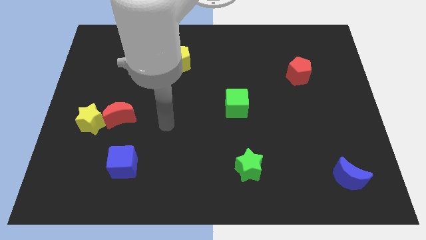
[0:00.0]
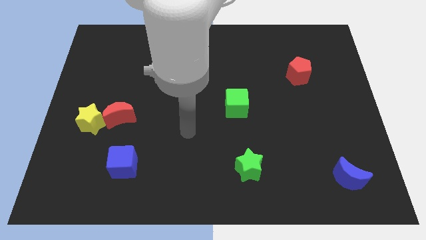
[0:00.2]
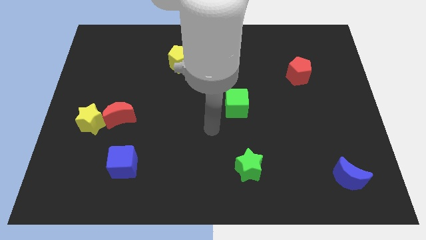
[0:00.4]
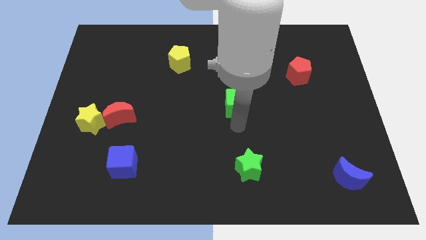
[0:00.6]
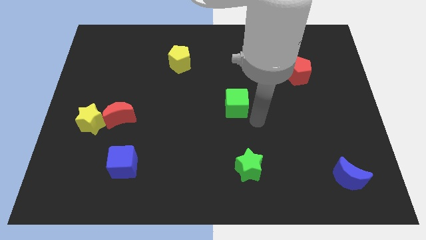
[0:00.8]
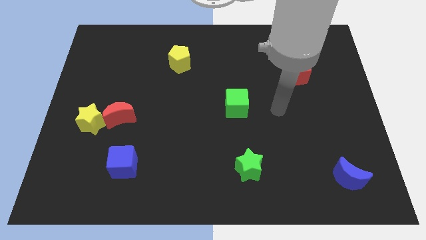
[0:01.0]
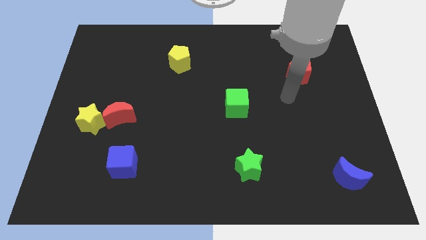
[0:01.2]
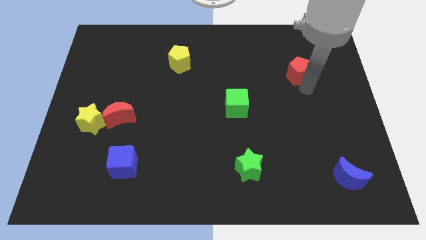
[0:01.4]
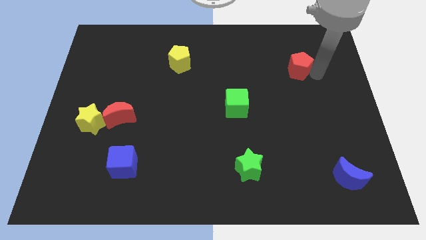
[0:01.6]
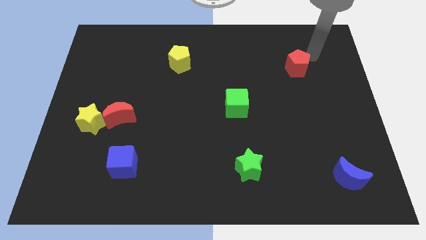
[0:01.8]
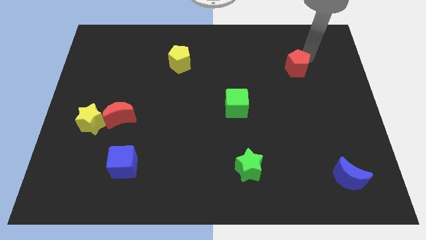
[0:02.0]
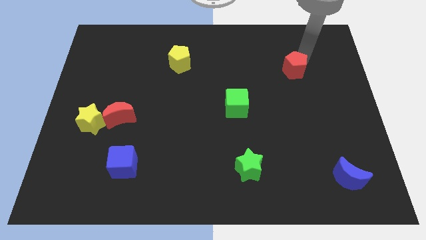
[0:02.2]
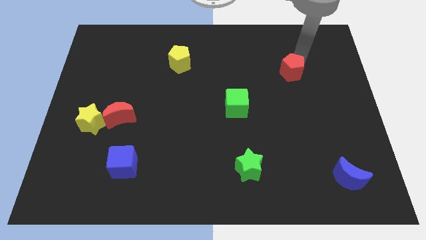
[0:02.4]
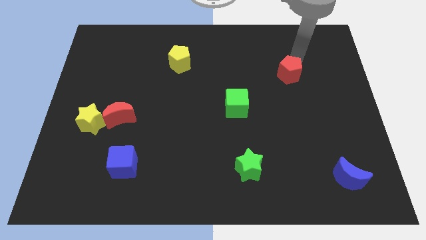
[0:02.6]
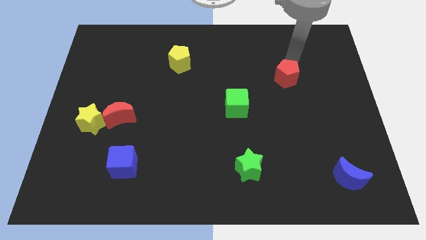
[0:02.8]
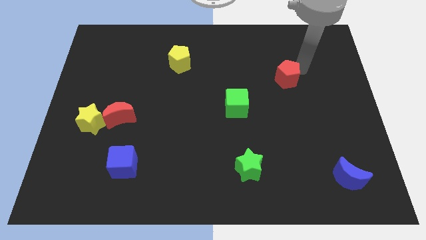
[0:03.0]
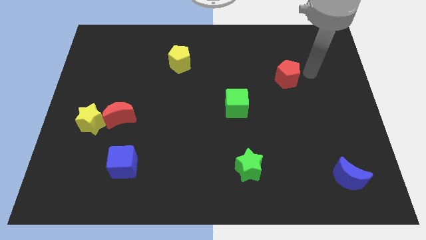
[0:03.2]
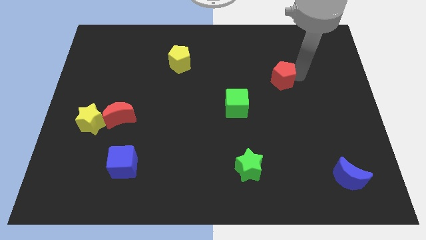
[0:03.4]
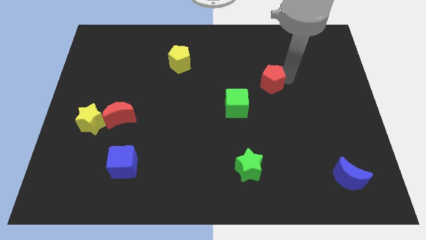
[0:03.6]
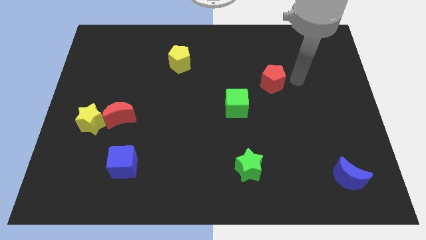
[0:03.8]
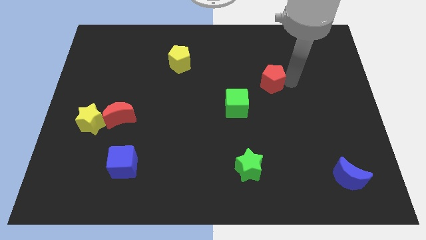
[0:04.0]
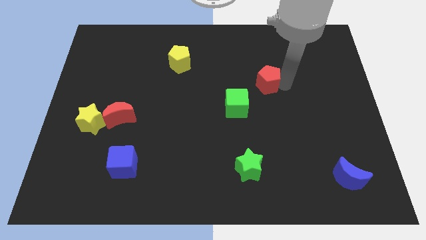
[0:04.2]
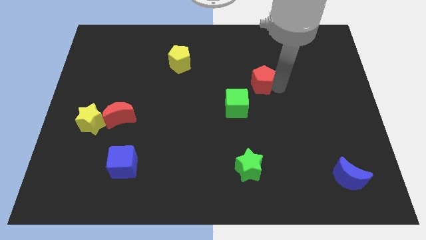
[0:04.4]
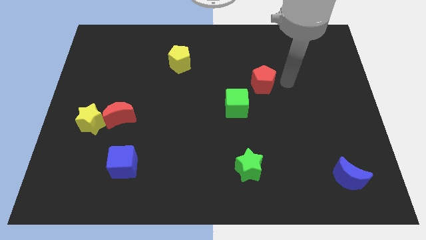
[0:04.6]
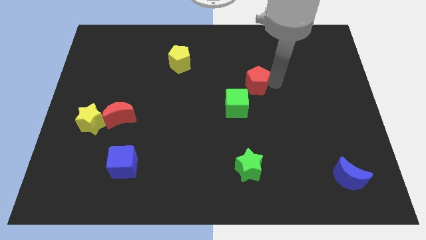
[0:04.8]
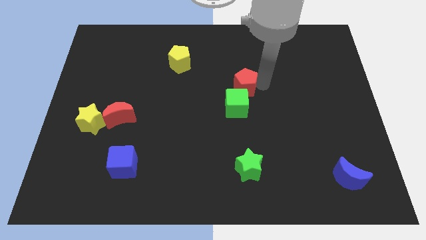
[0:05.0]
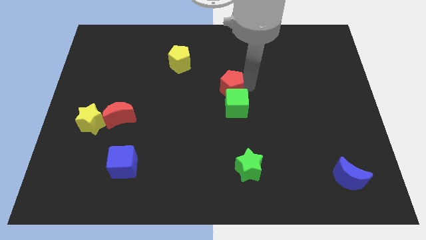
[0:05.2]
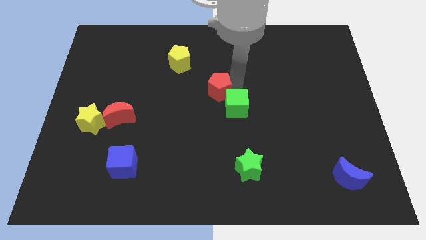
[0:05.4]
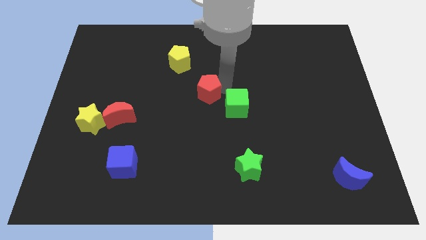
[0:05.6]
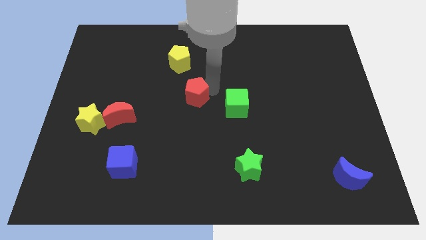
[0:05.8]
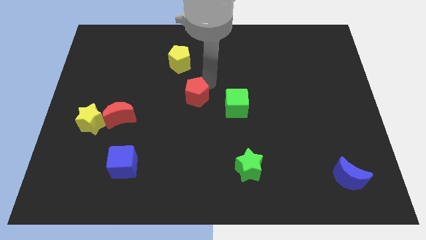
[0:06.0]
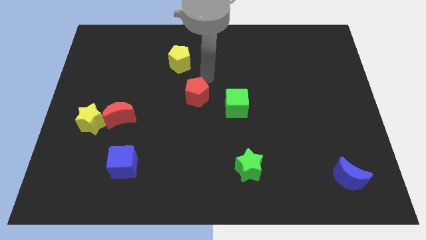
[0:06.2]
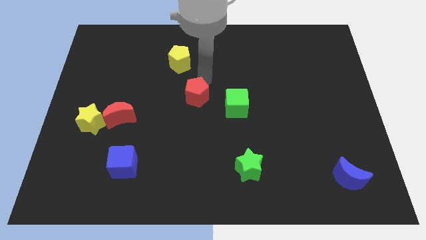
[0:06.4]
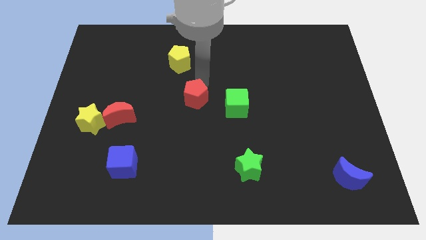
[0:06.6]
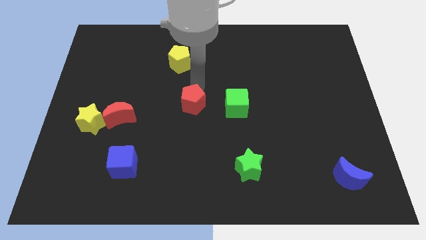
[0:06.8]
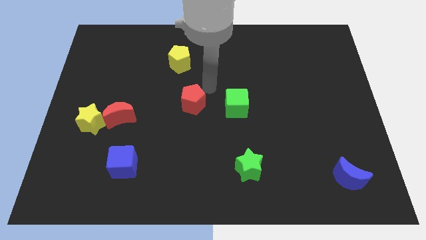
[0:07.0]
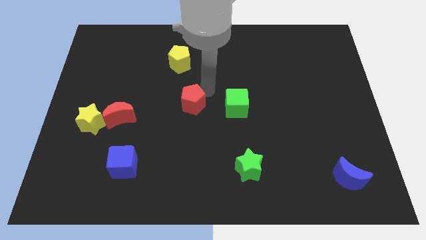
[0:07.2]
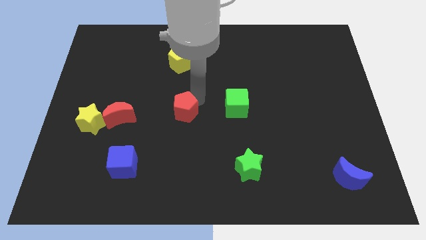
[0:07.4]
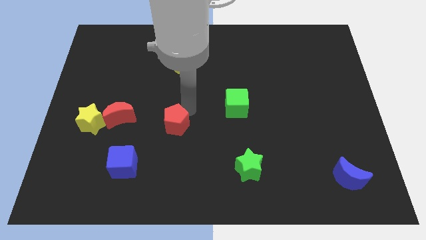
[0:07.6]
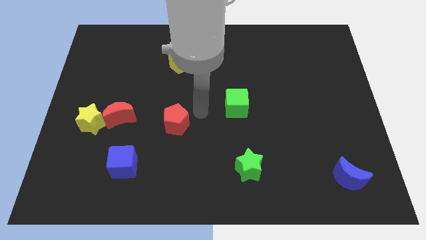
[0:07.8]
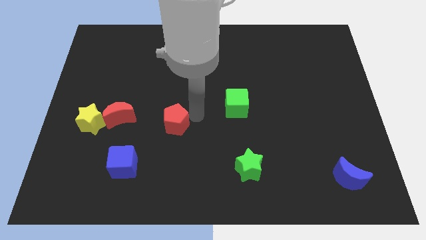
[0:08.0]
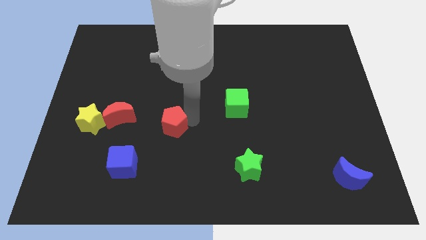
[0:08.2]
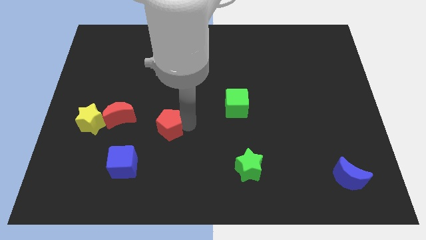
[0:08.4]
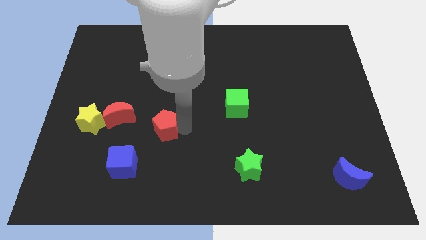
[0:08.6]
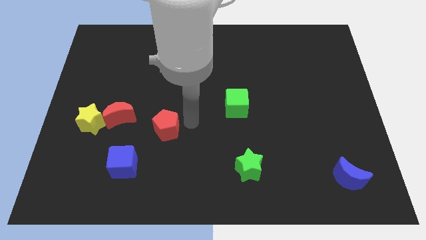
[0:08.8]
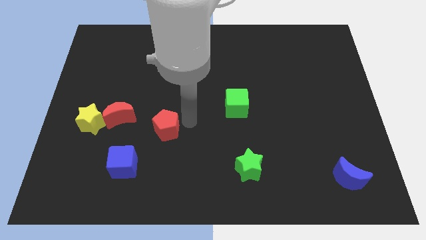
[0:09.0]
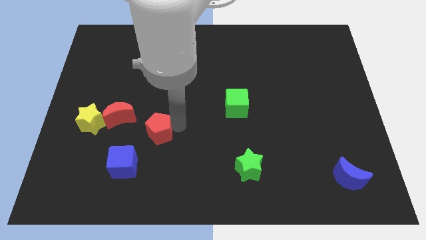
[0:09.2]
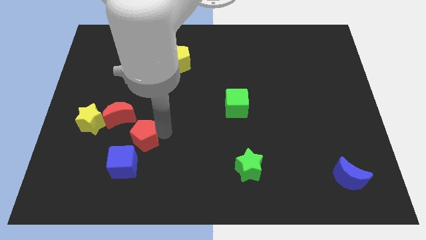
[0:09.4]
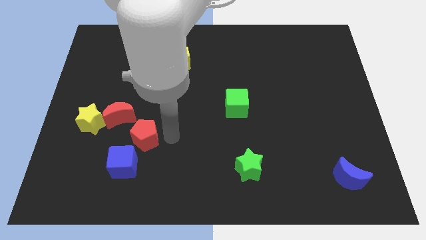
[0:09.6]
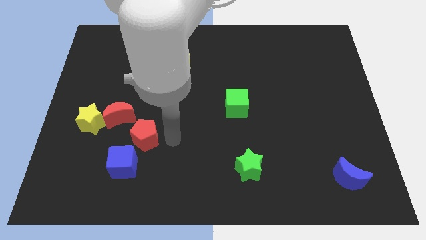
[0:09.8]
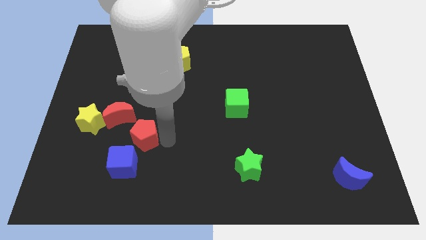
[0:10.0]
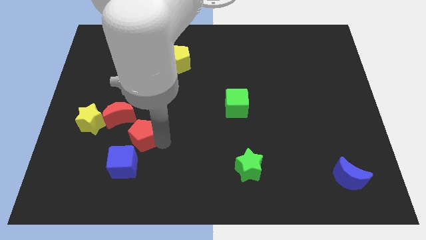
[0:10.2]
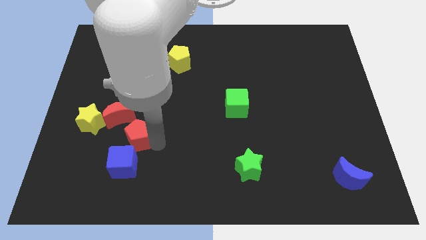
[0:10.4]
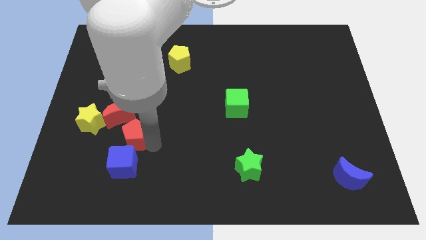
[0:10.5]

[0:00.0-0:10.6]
push the red pentagon to the bottom of the red moon

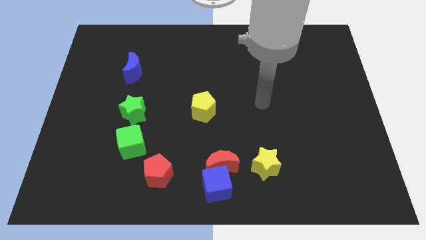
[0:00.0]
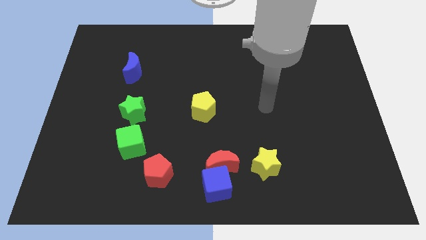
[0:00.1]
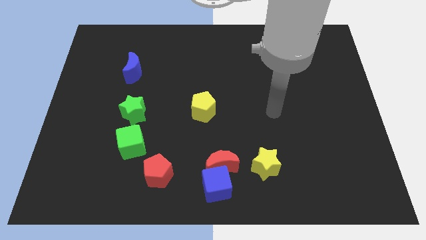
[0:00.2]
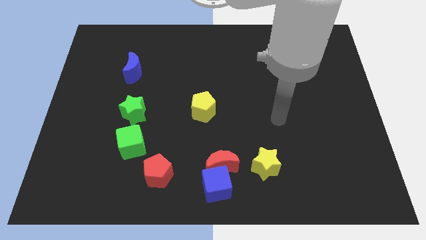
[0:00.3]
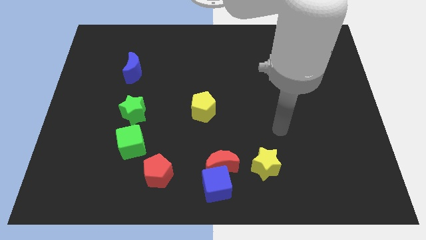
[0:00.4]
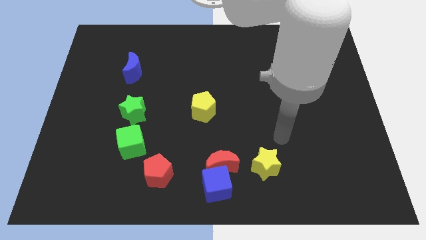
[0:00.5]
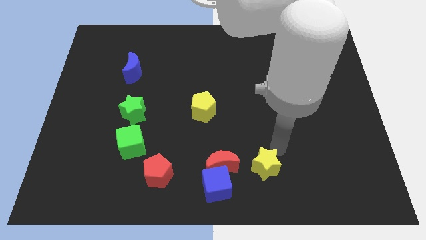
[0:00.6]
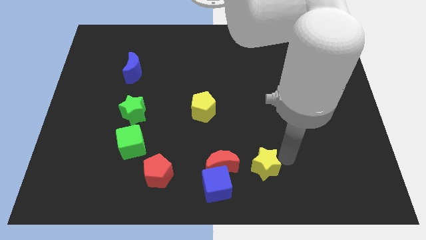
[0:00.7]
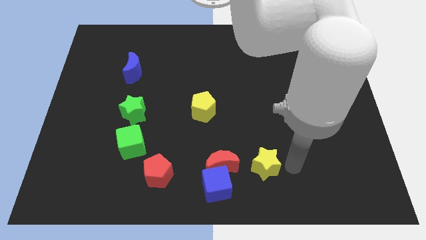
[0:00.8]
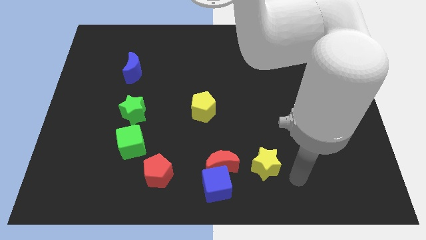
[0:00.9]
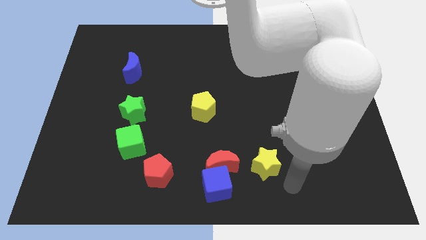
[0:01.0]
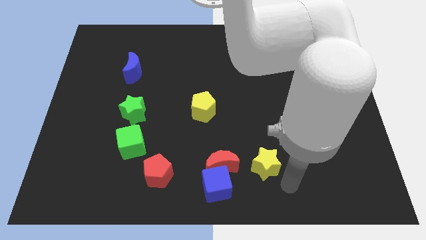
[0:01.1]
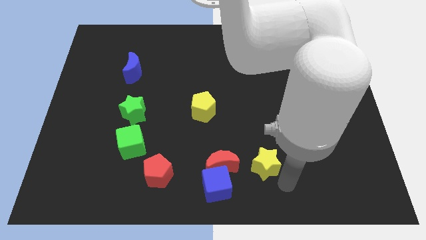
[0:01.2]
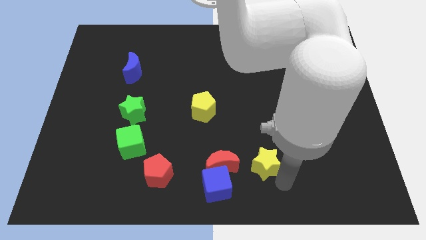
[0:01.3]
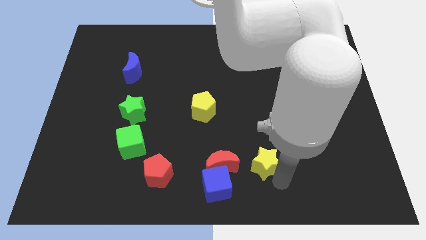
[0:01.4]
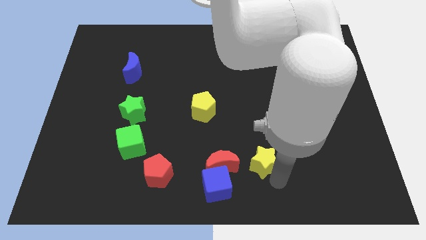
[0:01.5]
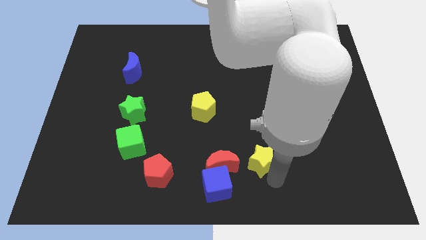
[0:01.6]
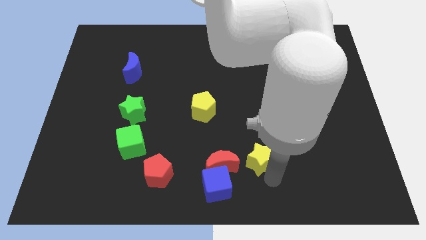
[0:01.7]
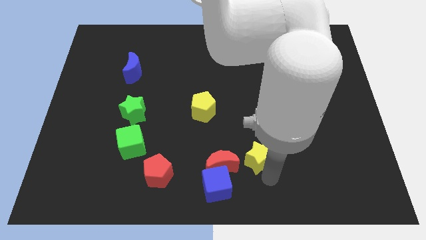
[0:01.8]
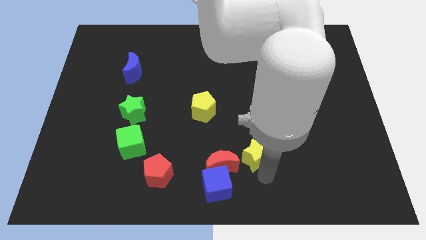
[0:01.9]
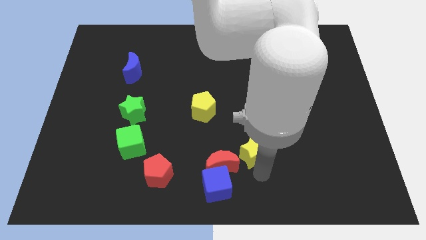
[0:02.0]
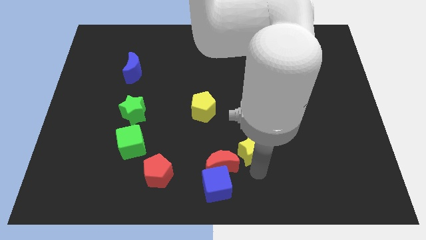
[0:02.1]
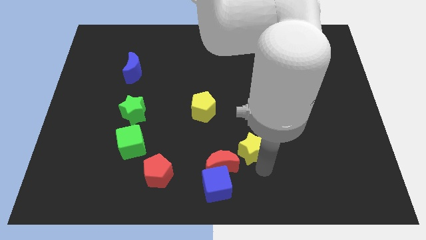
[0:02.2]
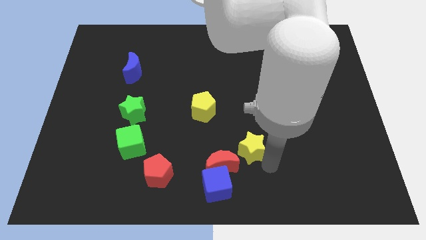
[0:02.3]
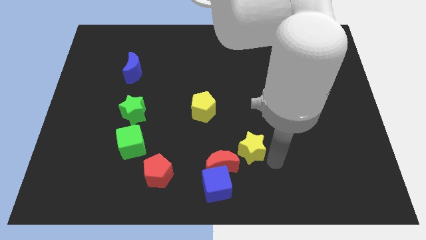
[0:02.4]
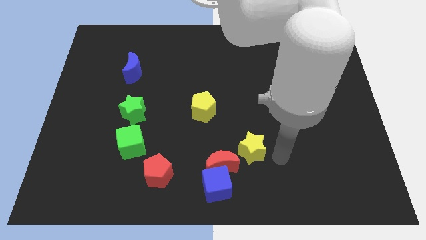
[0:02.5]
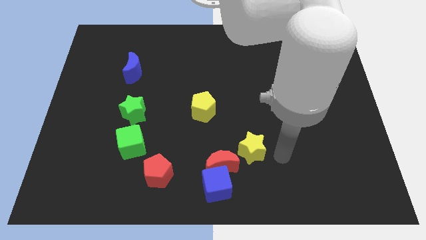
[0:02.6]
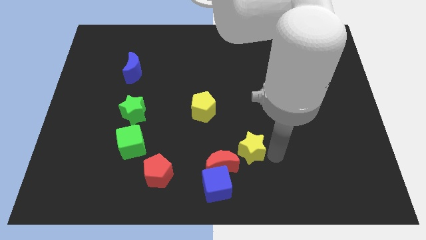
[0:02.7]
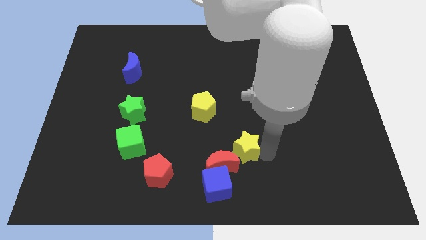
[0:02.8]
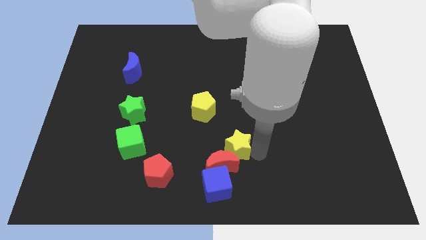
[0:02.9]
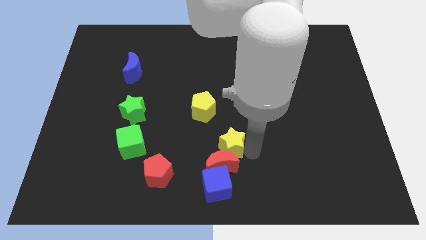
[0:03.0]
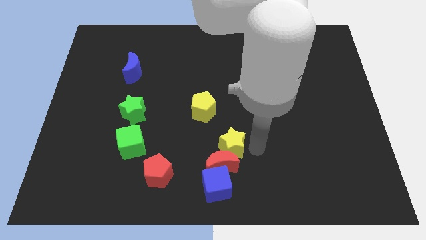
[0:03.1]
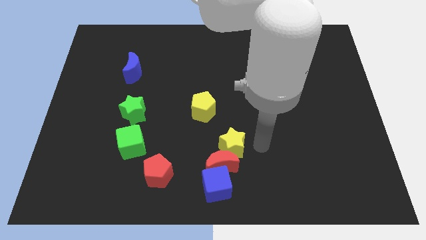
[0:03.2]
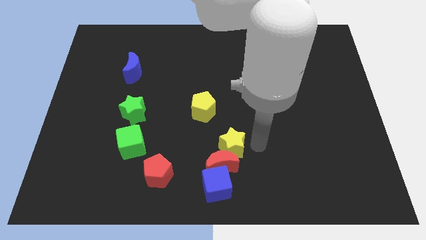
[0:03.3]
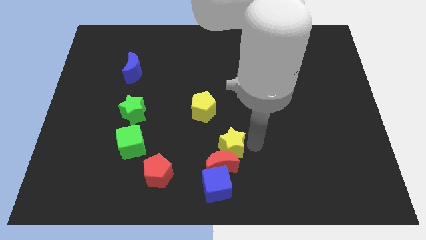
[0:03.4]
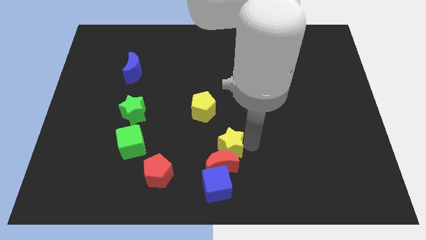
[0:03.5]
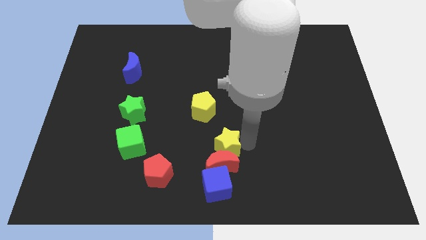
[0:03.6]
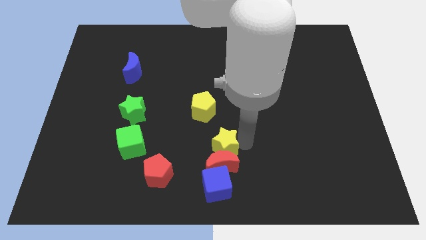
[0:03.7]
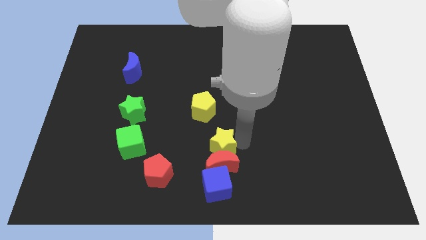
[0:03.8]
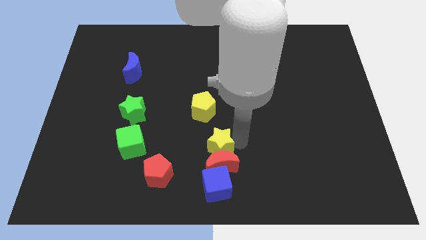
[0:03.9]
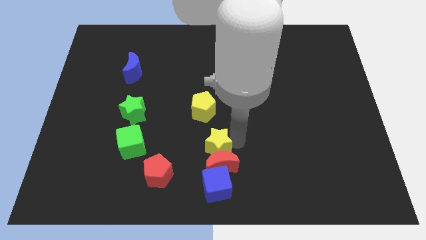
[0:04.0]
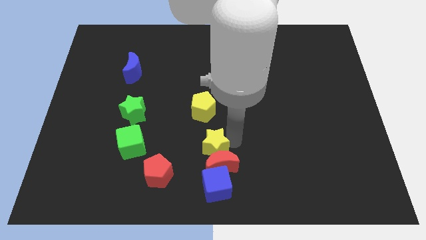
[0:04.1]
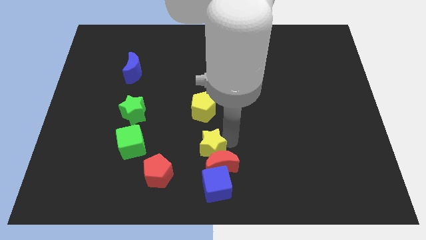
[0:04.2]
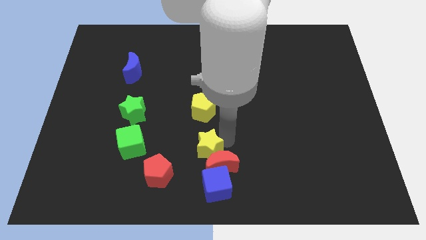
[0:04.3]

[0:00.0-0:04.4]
put the yellow star to the top right of the red pentagon
